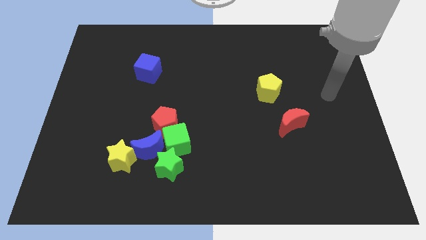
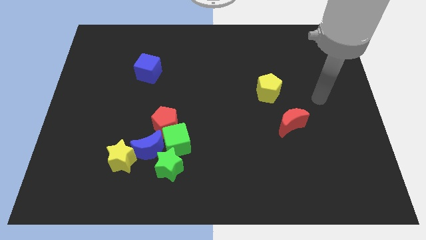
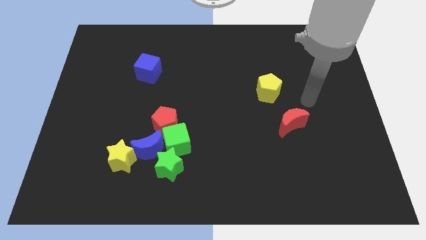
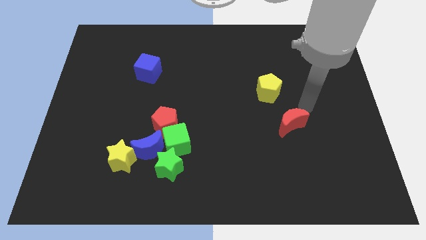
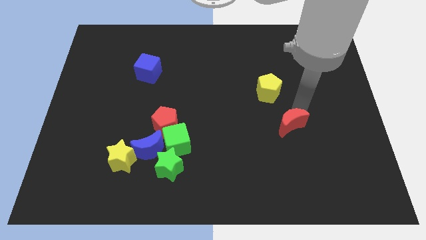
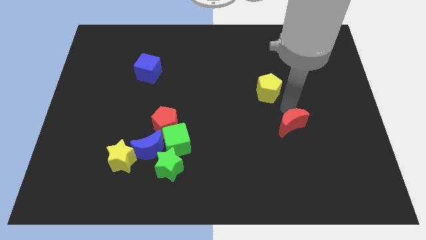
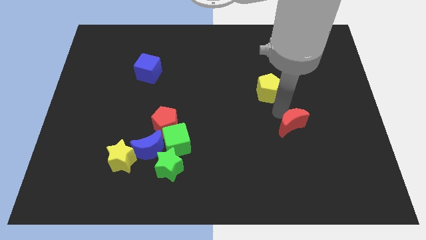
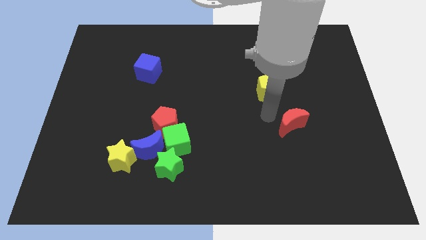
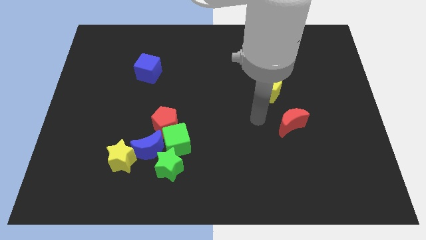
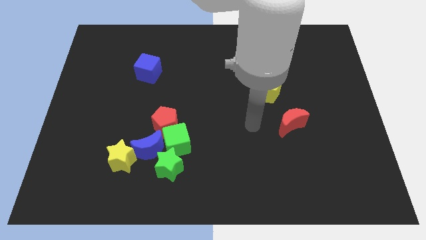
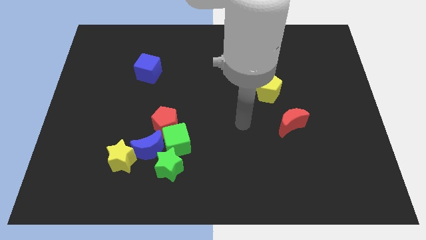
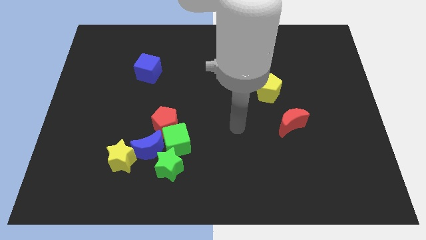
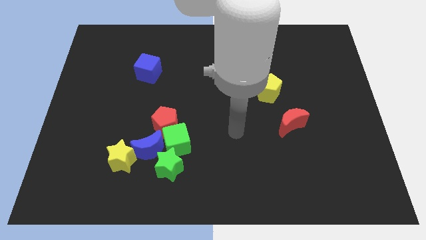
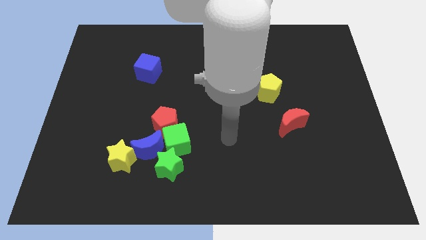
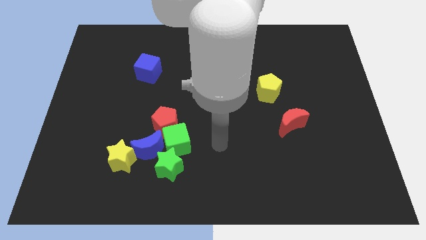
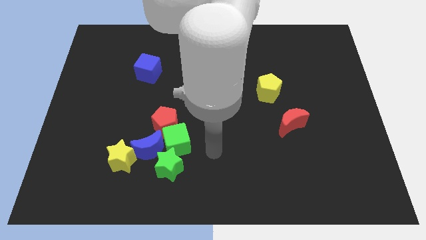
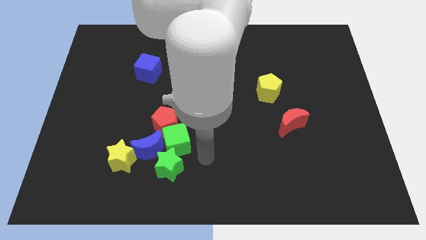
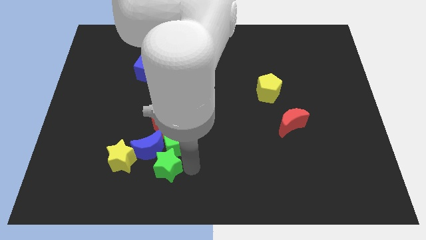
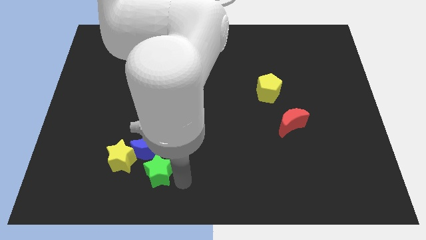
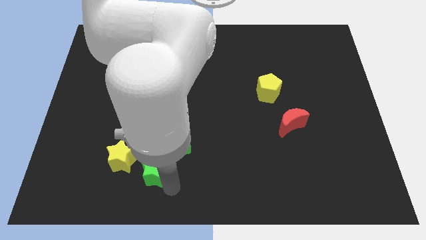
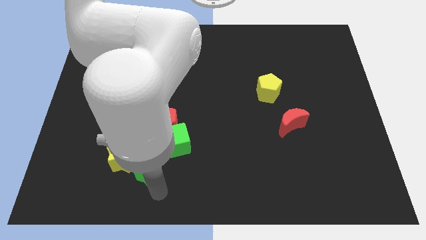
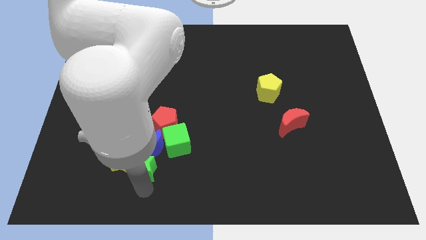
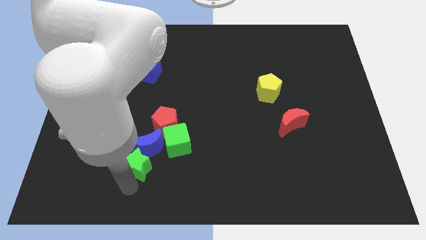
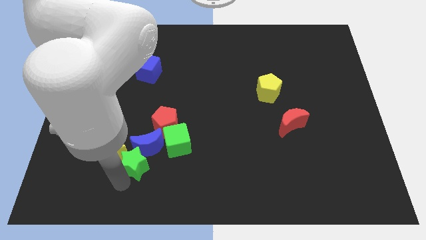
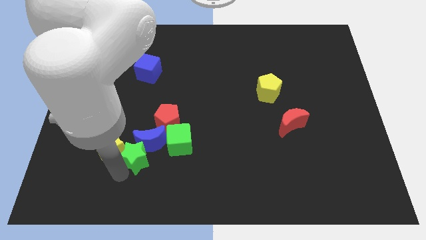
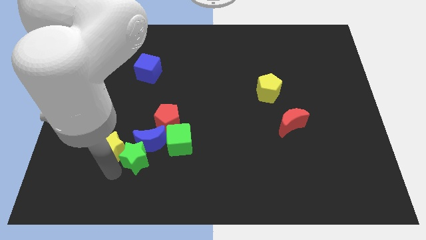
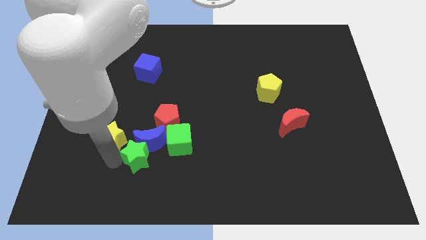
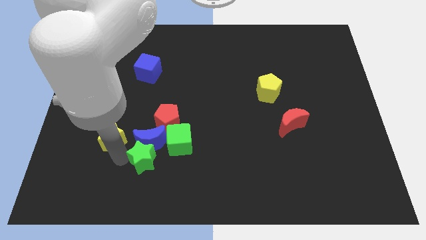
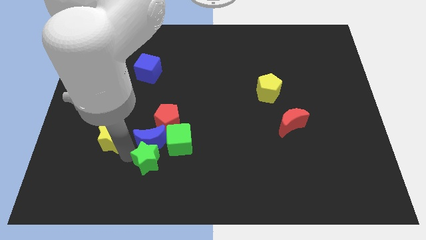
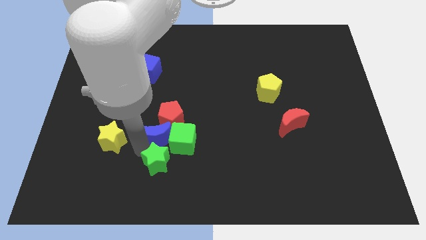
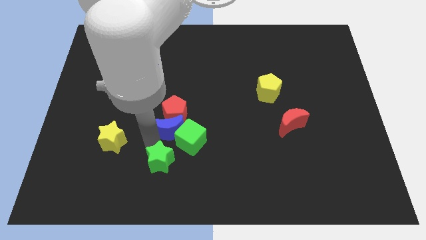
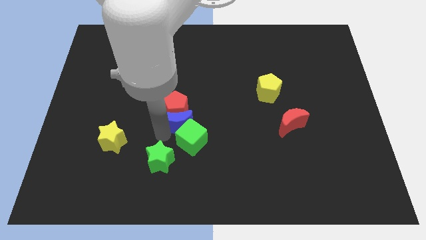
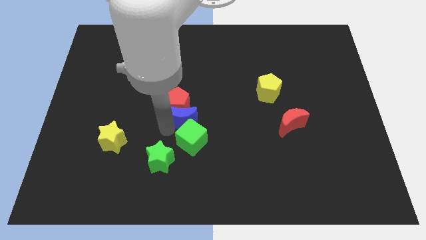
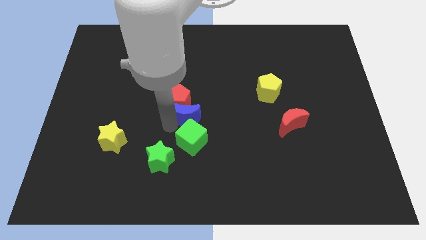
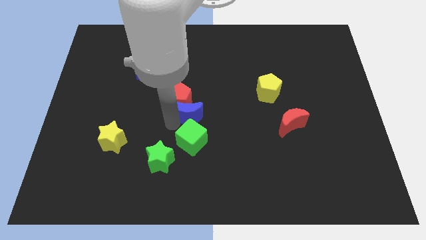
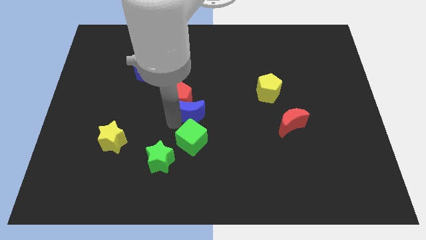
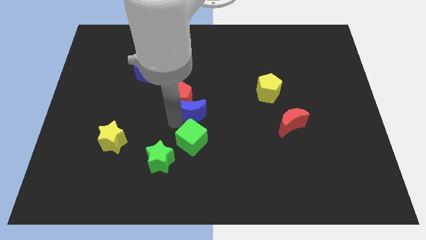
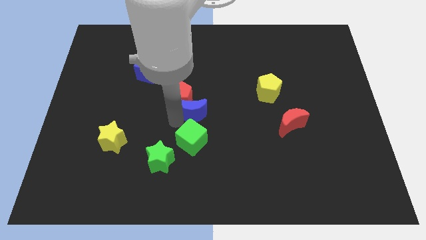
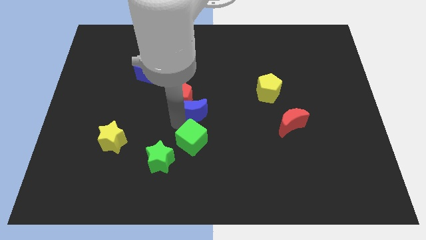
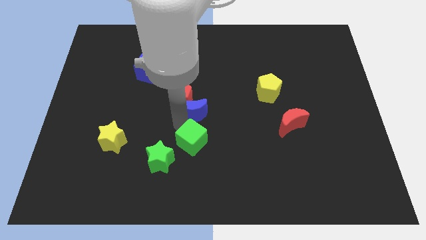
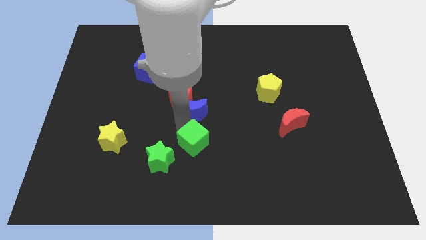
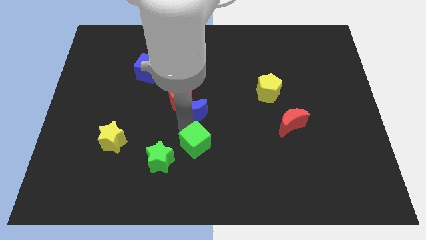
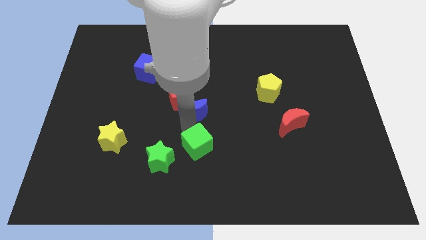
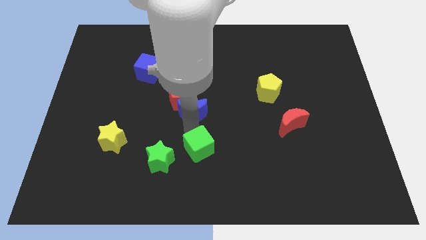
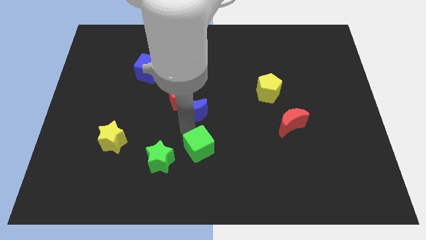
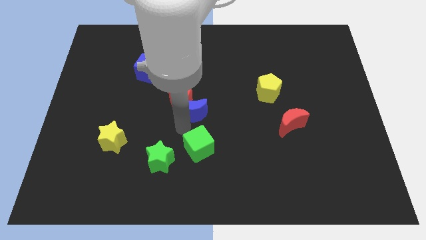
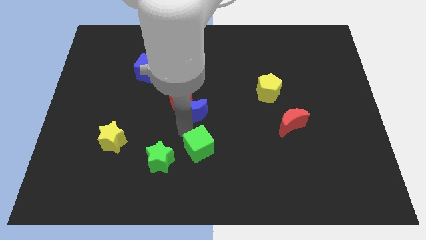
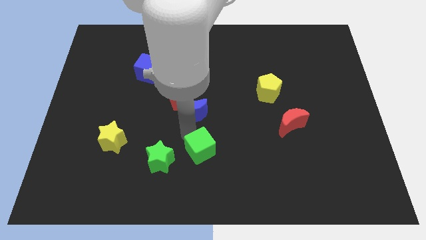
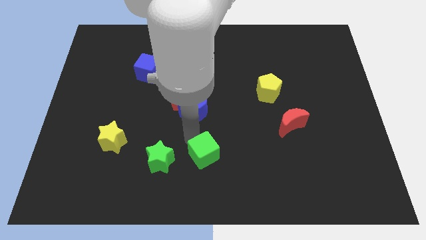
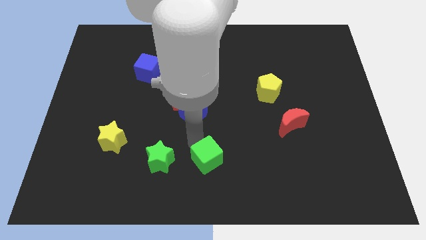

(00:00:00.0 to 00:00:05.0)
pull the green cube apart from the group of blocks

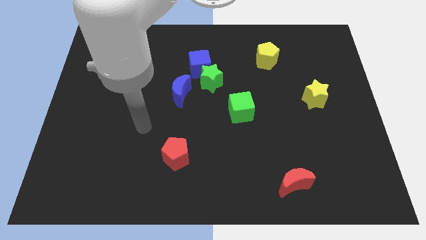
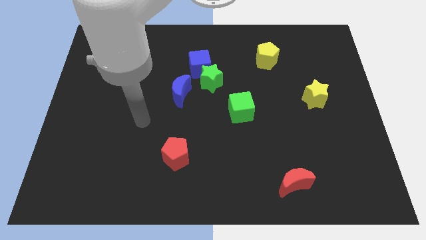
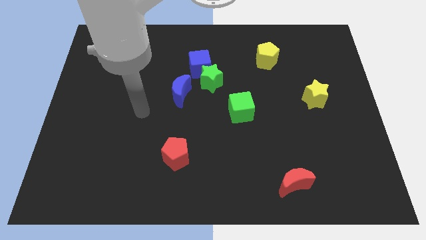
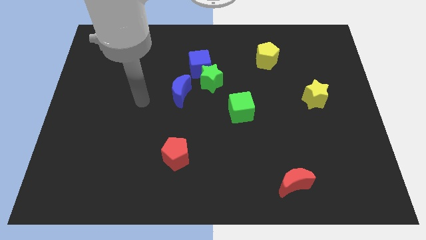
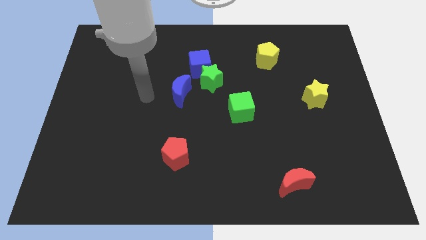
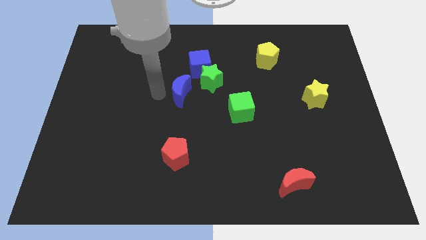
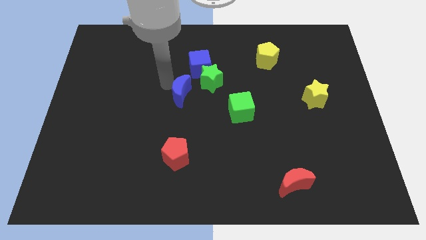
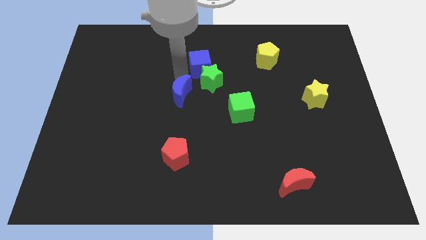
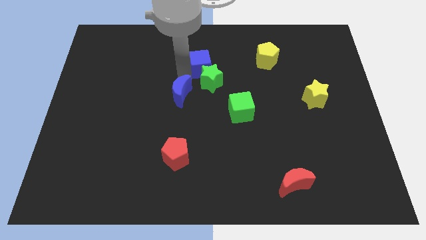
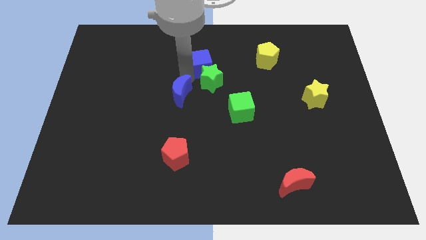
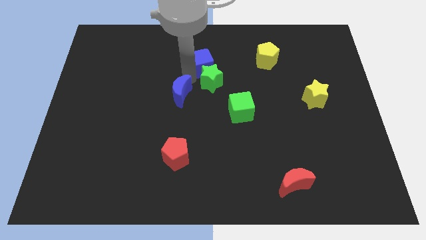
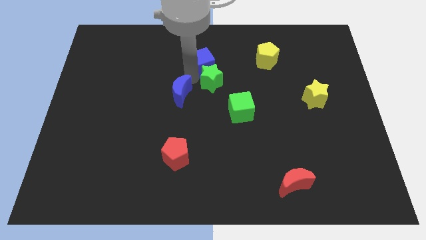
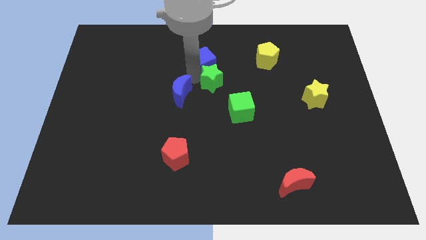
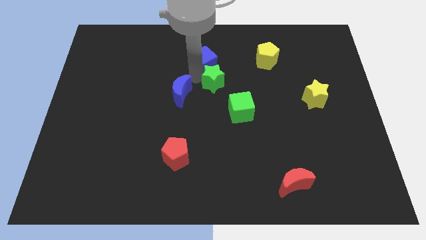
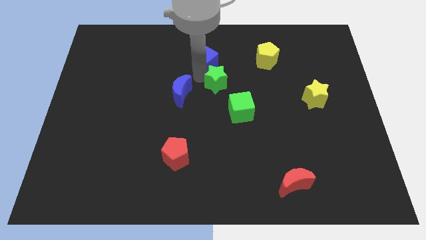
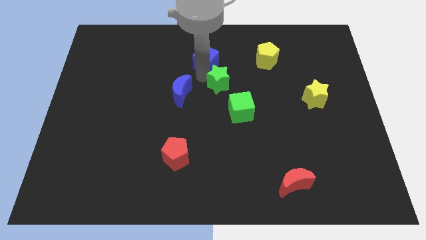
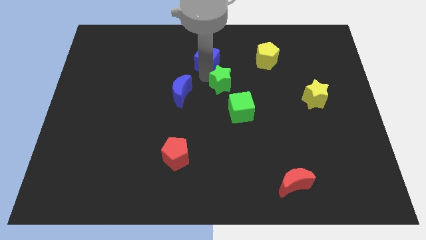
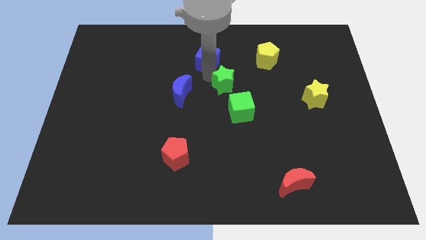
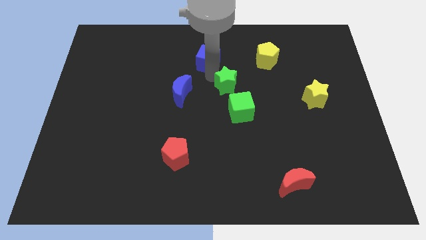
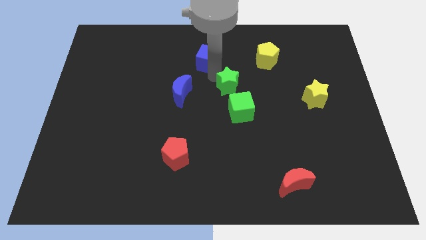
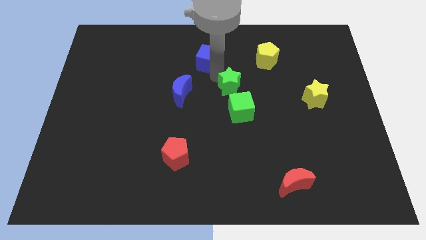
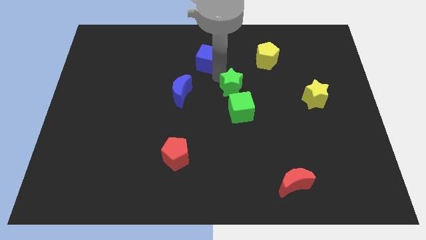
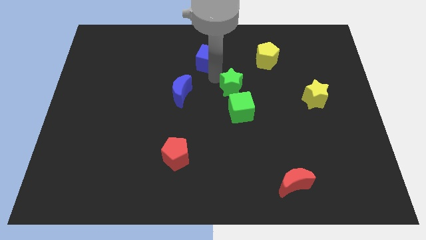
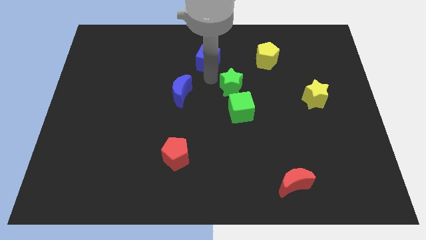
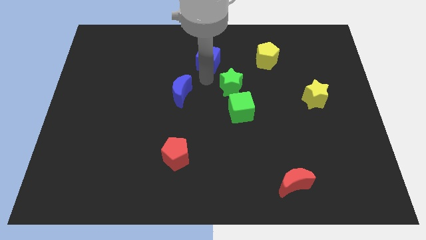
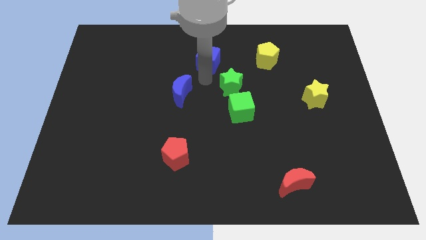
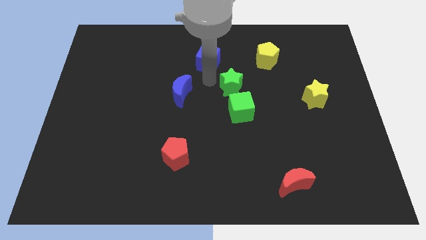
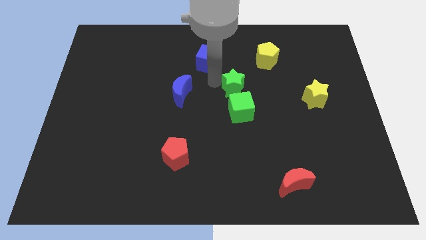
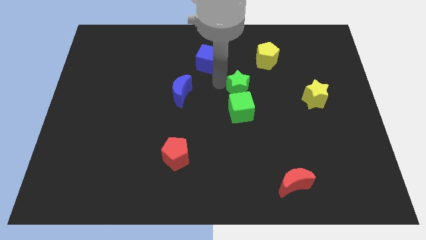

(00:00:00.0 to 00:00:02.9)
pull the green star apart from the blue cube and blue moon

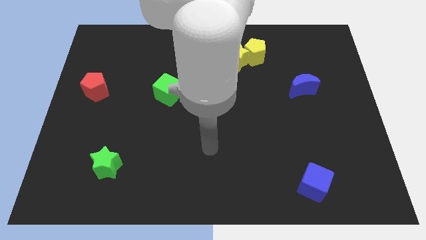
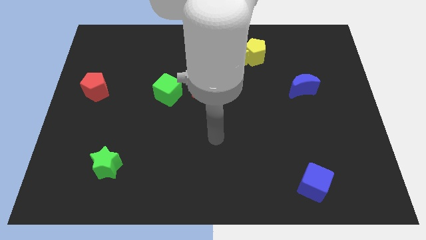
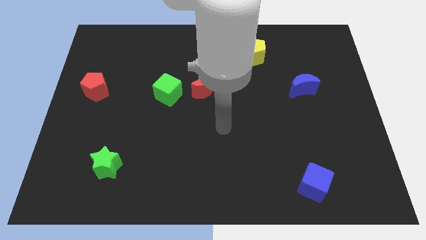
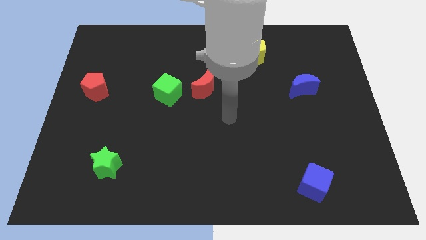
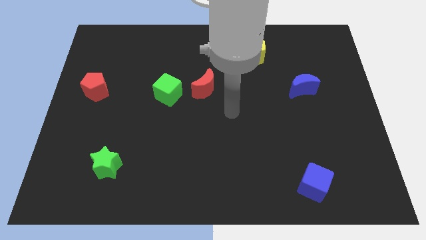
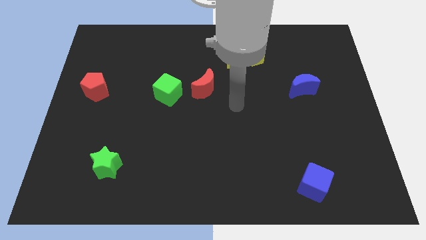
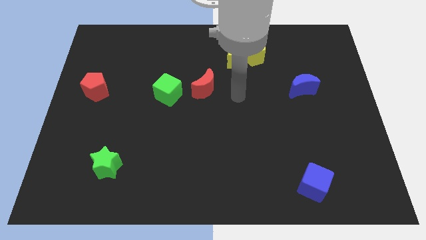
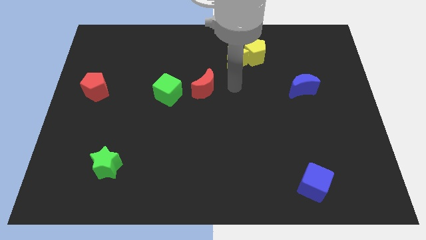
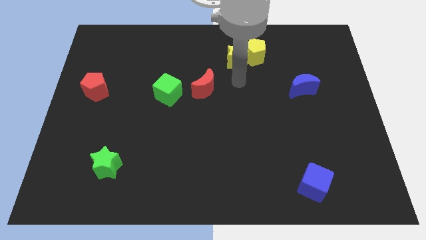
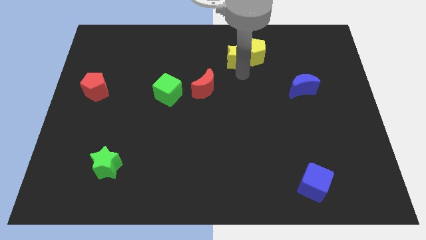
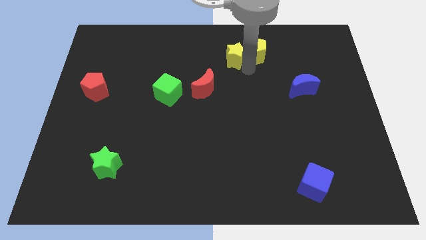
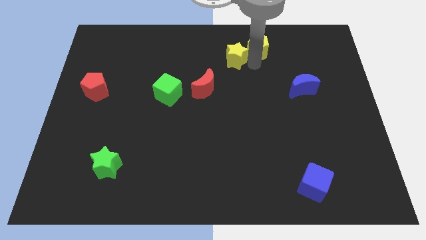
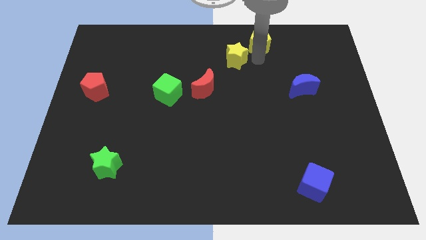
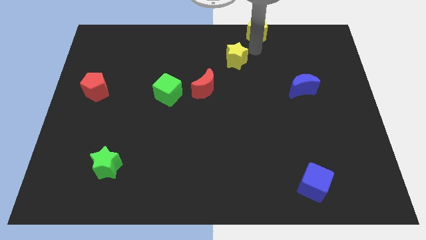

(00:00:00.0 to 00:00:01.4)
pull the yellow star apart from the yellow pentagon

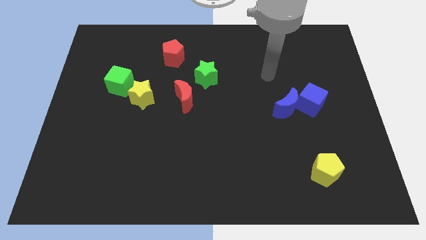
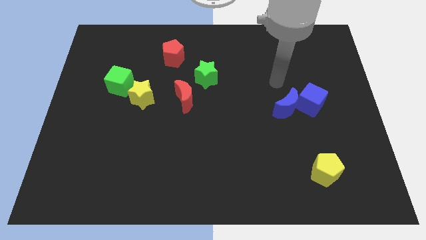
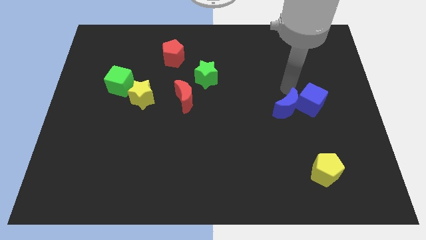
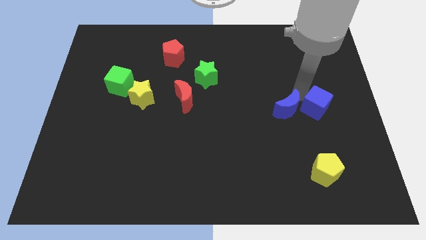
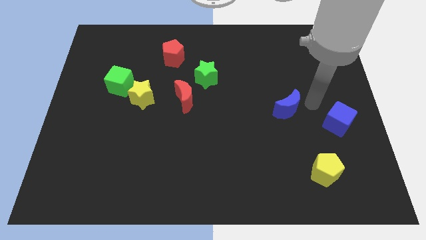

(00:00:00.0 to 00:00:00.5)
separate the blue moon from the blue cube
